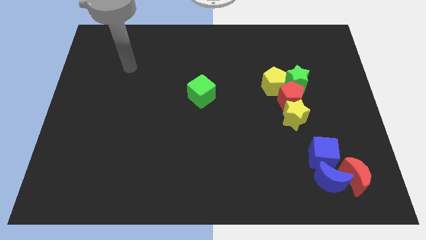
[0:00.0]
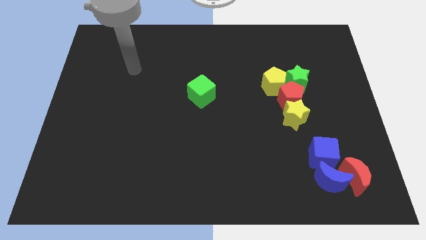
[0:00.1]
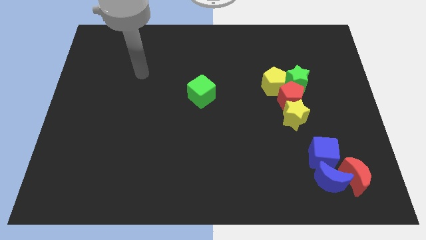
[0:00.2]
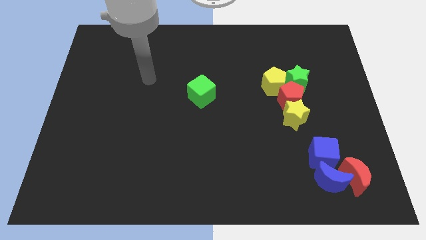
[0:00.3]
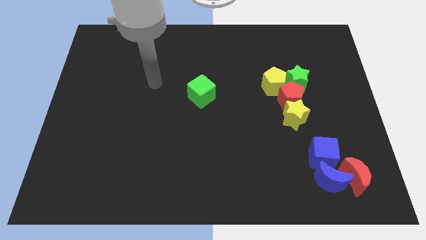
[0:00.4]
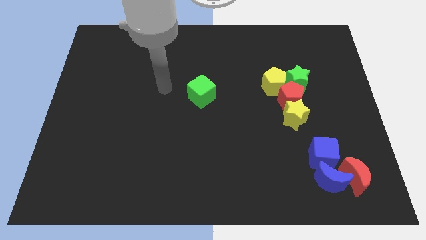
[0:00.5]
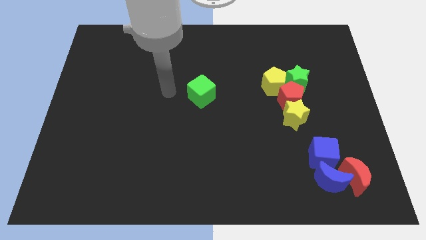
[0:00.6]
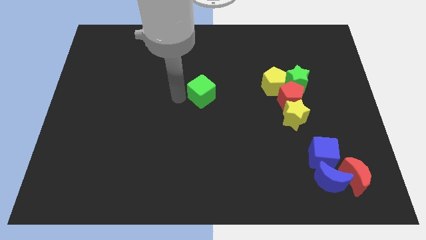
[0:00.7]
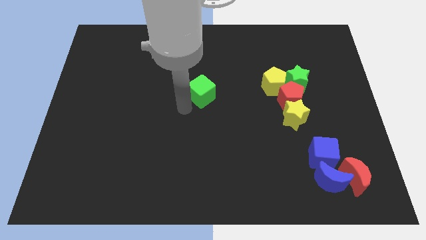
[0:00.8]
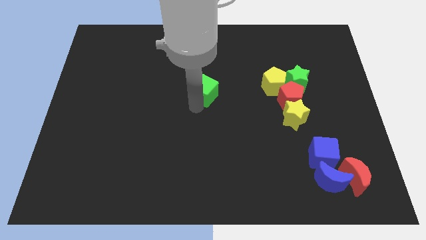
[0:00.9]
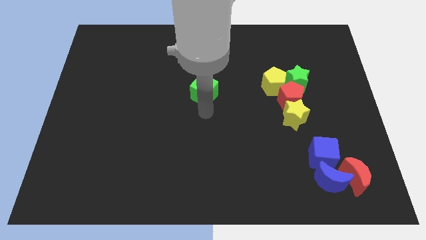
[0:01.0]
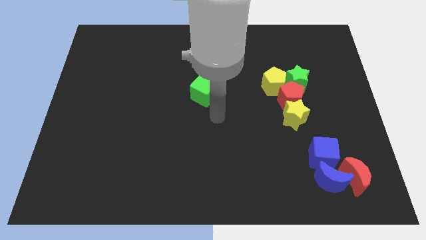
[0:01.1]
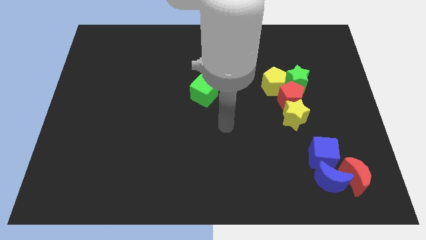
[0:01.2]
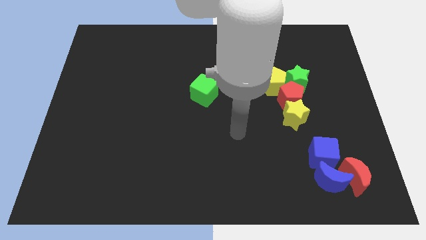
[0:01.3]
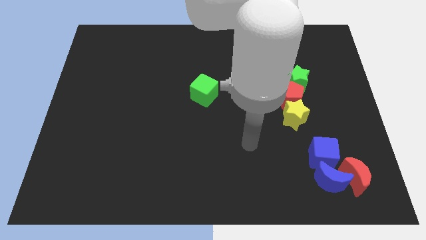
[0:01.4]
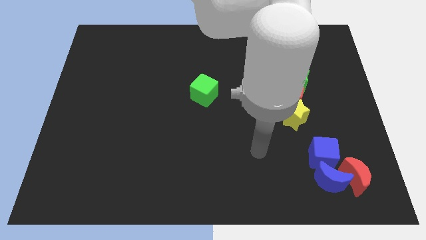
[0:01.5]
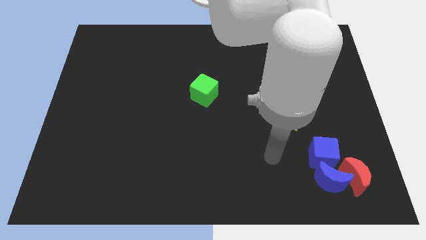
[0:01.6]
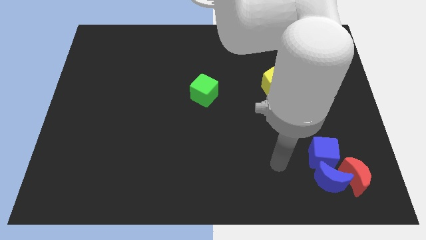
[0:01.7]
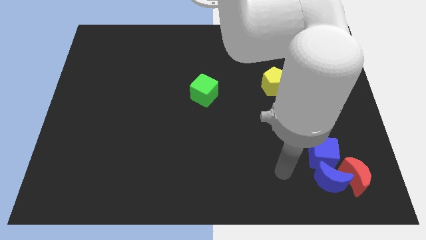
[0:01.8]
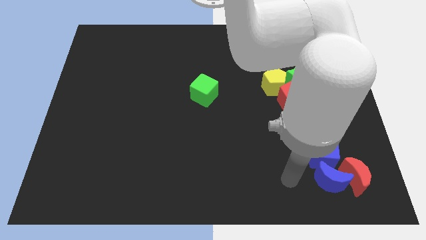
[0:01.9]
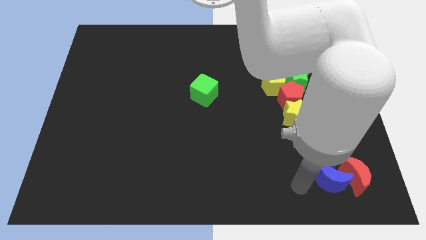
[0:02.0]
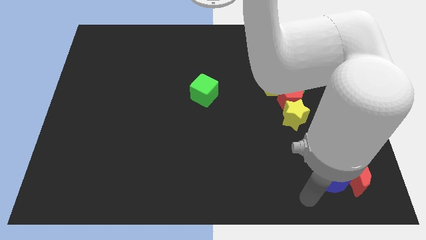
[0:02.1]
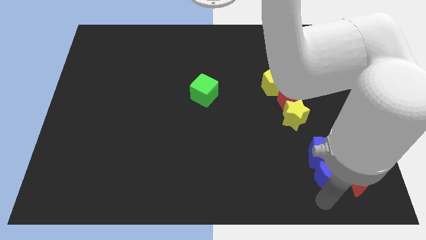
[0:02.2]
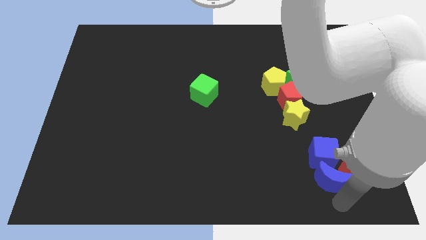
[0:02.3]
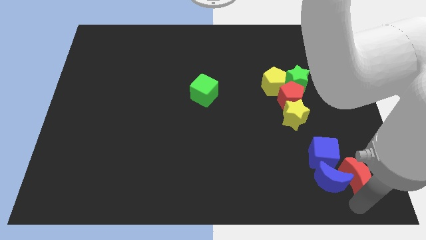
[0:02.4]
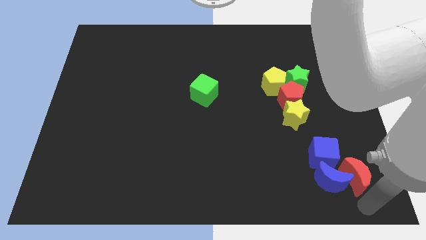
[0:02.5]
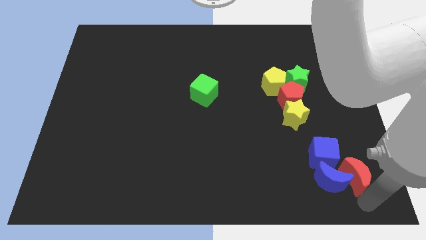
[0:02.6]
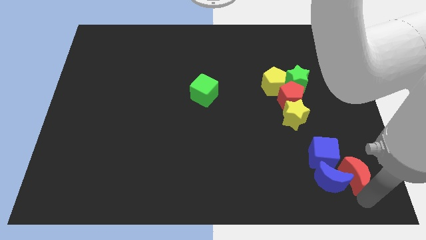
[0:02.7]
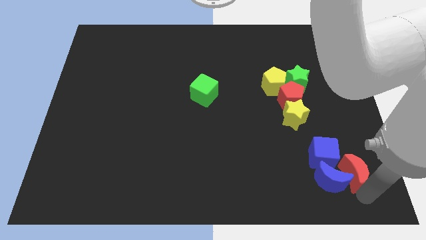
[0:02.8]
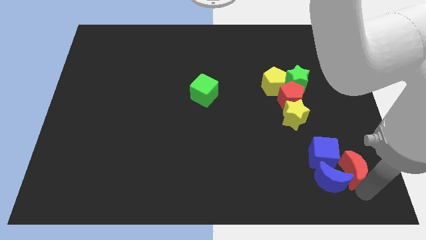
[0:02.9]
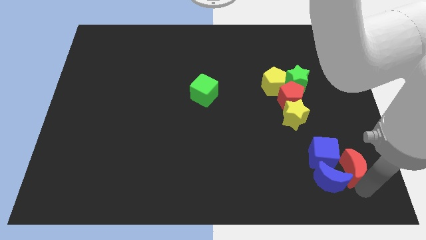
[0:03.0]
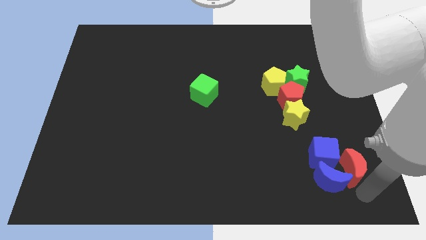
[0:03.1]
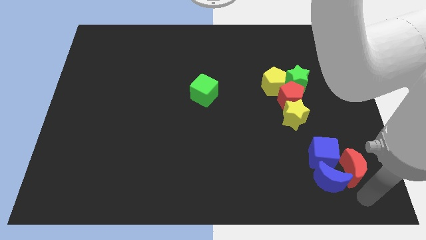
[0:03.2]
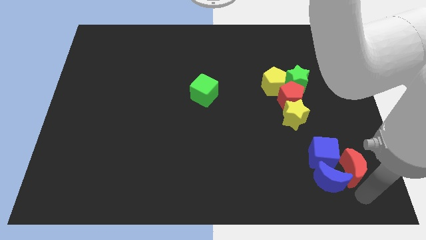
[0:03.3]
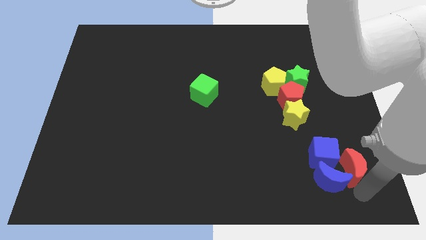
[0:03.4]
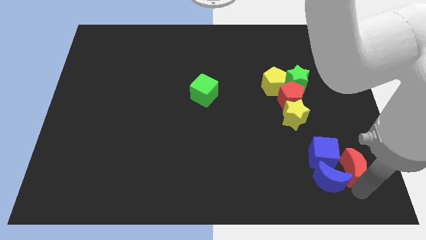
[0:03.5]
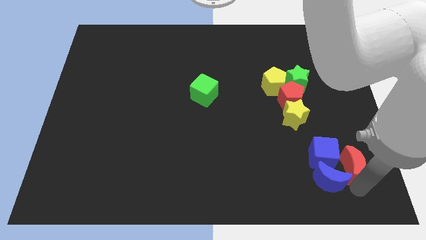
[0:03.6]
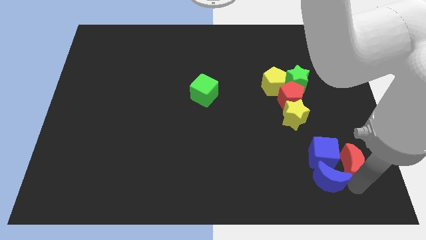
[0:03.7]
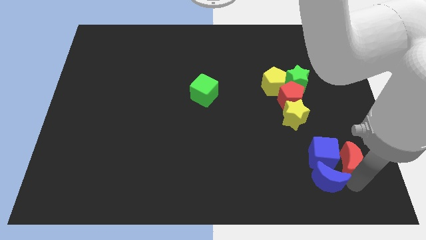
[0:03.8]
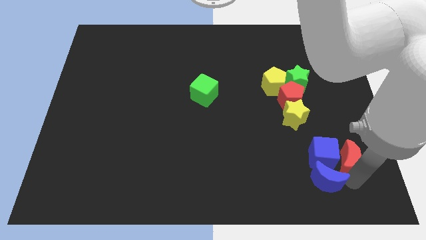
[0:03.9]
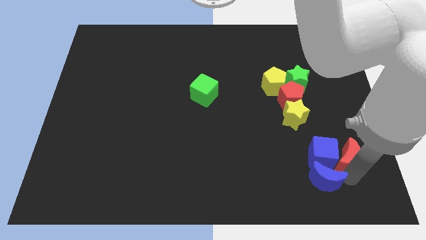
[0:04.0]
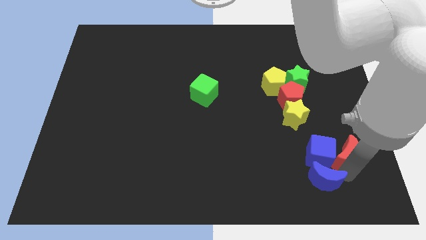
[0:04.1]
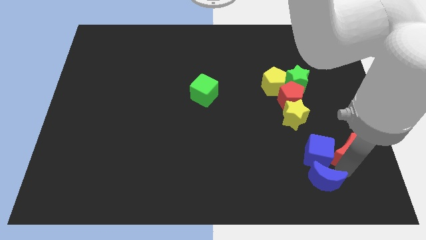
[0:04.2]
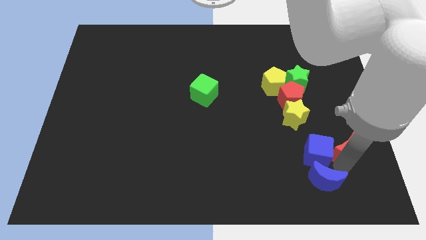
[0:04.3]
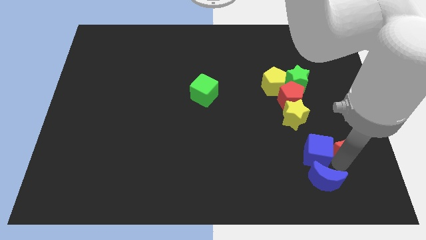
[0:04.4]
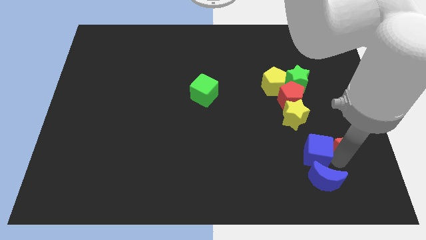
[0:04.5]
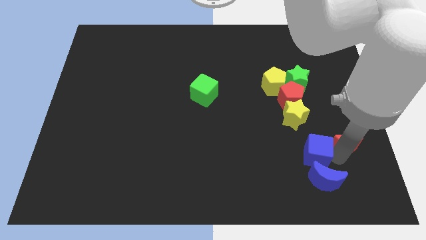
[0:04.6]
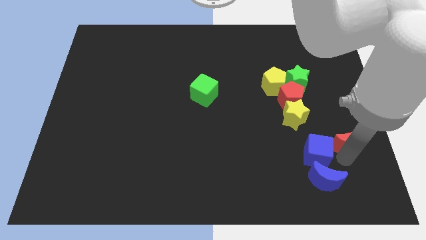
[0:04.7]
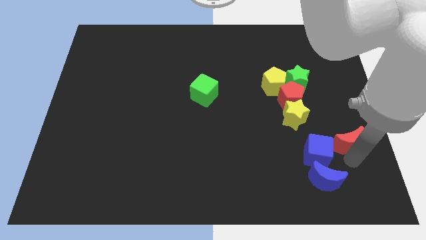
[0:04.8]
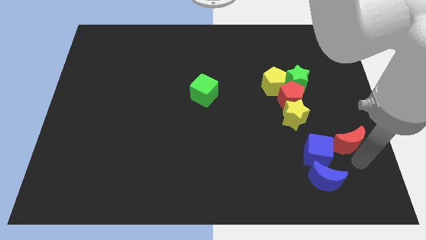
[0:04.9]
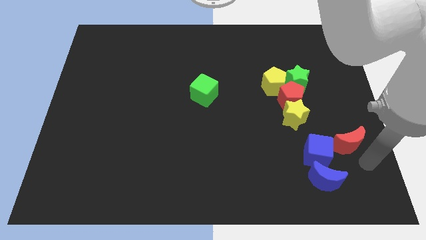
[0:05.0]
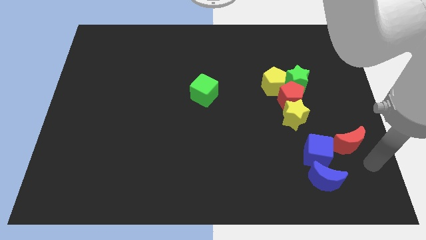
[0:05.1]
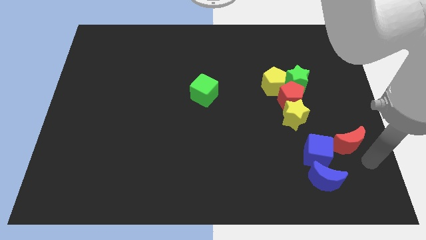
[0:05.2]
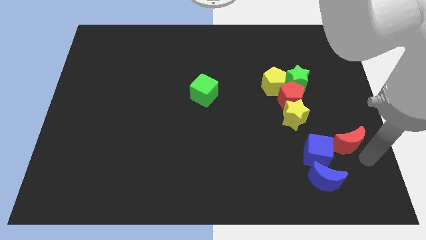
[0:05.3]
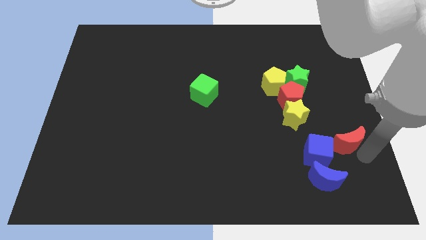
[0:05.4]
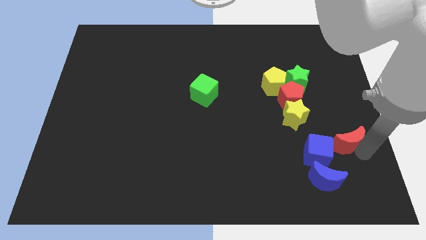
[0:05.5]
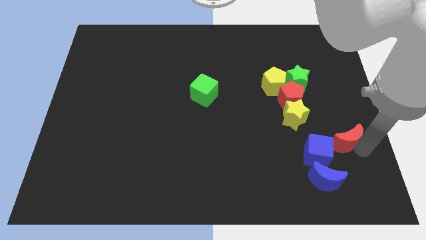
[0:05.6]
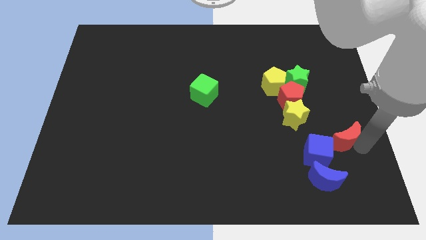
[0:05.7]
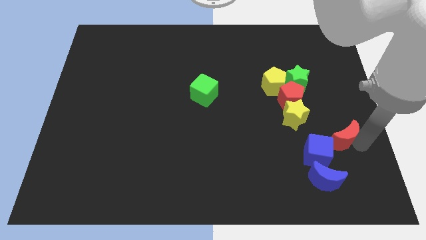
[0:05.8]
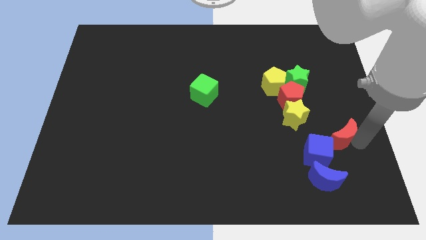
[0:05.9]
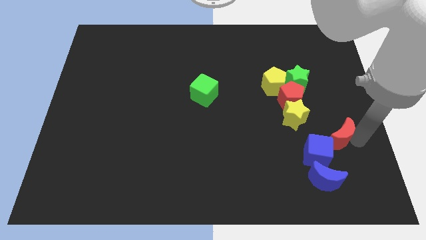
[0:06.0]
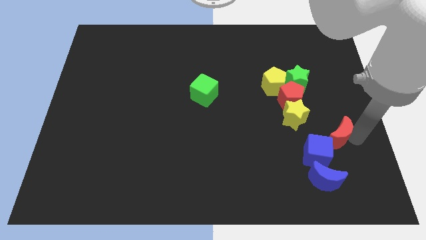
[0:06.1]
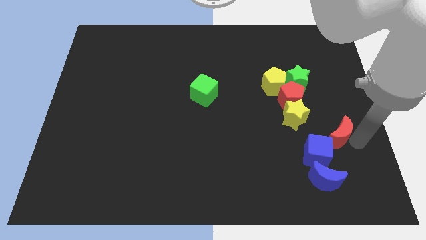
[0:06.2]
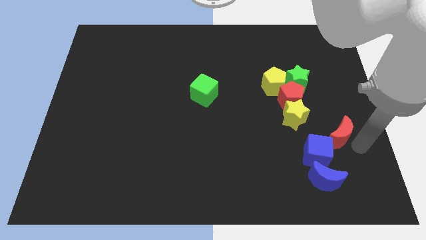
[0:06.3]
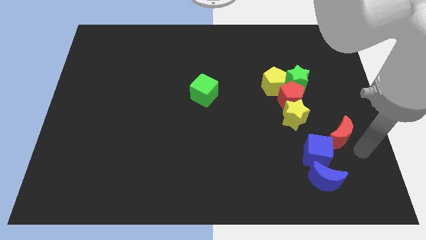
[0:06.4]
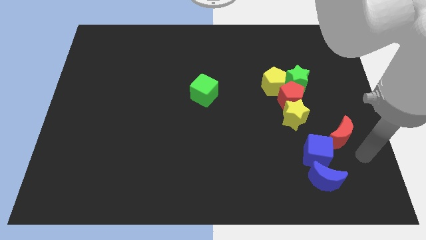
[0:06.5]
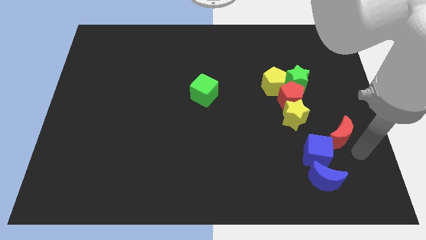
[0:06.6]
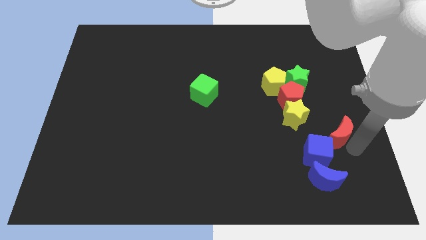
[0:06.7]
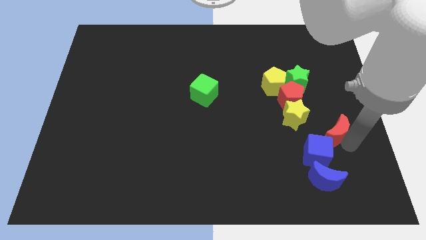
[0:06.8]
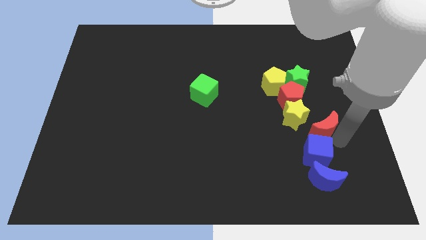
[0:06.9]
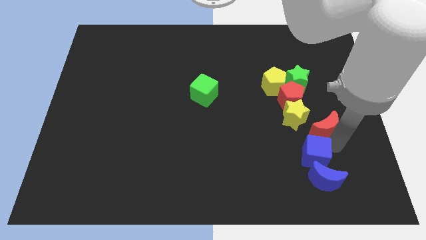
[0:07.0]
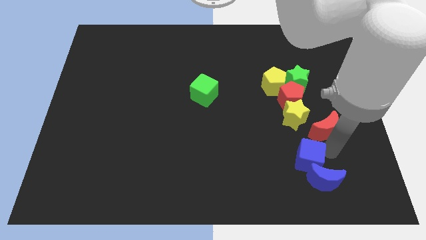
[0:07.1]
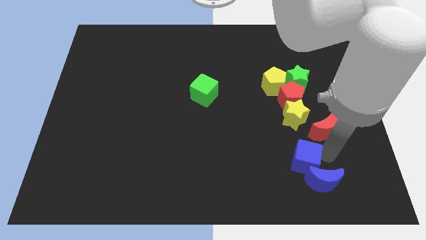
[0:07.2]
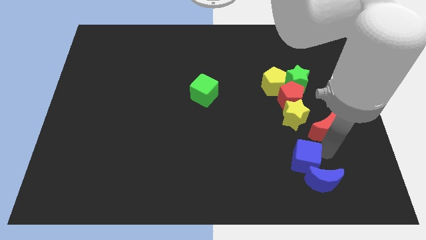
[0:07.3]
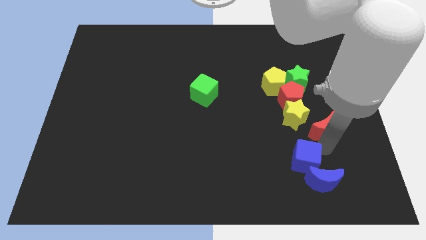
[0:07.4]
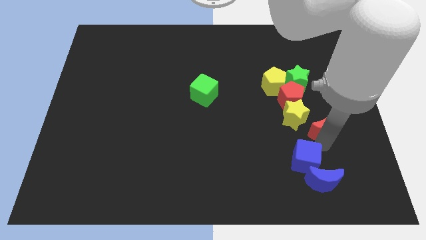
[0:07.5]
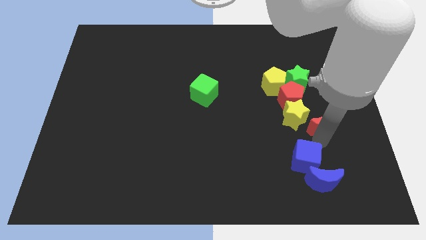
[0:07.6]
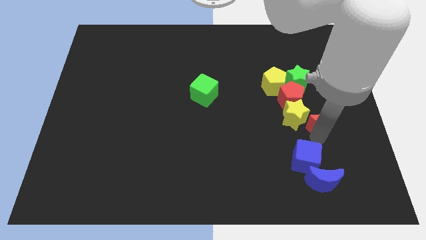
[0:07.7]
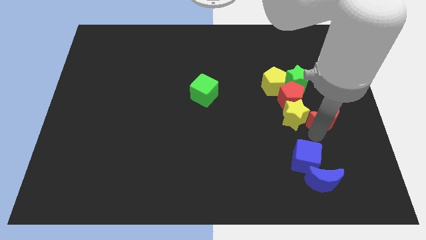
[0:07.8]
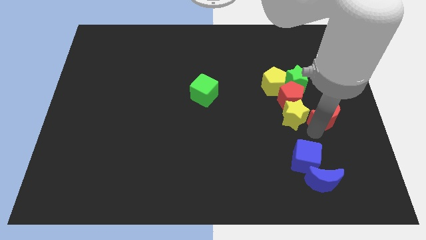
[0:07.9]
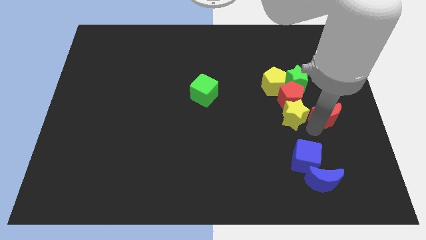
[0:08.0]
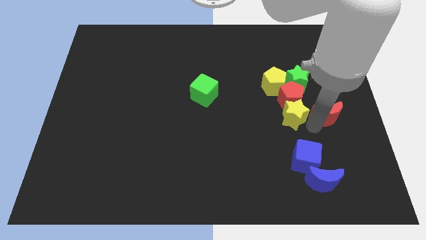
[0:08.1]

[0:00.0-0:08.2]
put the red moon to the bottom right of the green star
